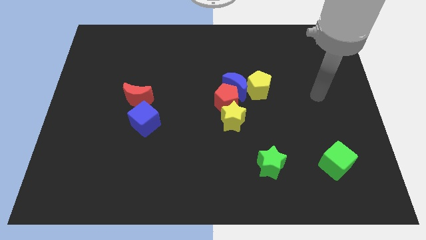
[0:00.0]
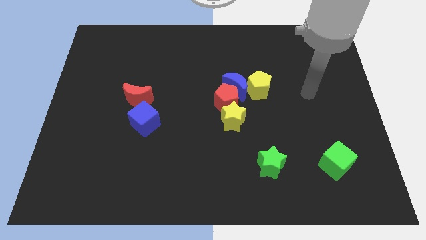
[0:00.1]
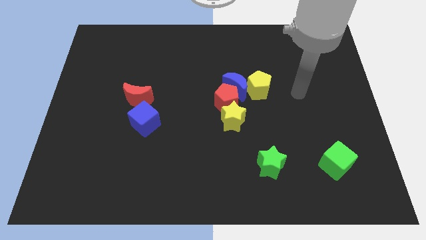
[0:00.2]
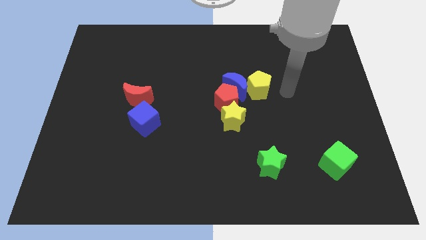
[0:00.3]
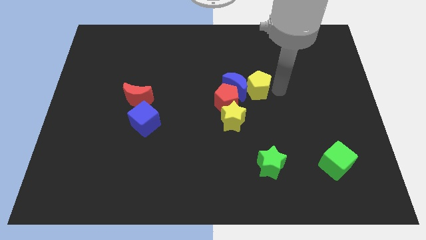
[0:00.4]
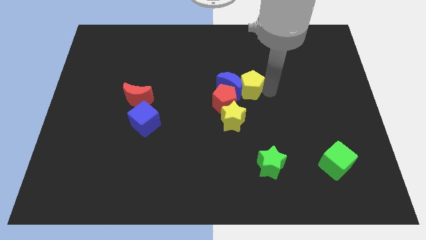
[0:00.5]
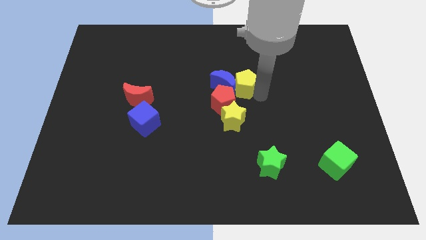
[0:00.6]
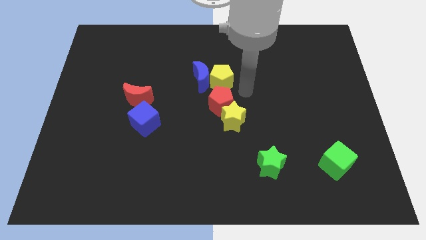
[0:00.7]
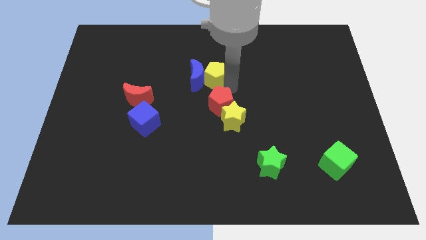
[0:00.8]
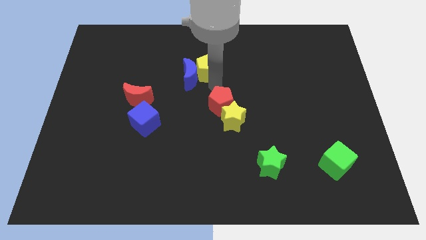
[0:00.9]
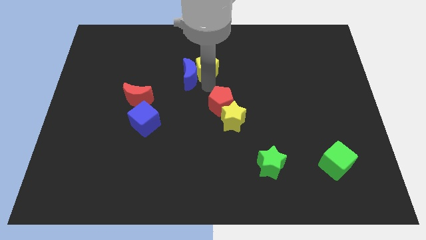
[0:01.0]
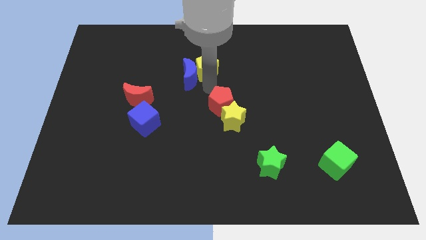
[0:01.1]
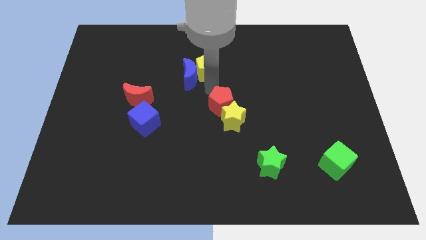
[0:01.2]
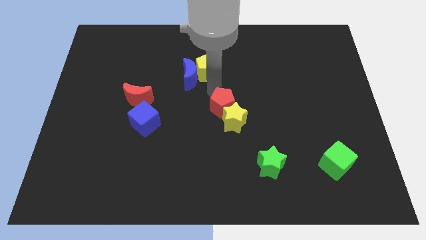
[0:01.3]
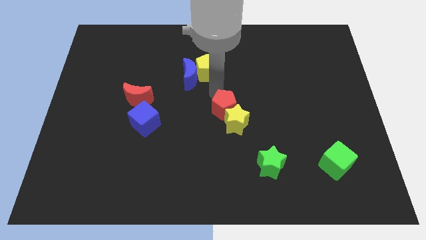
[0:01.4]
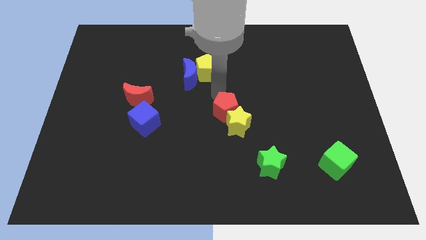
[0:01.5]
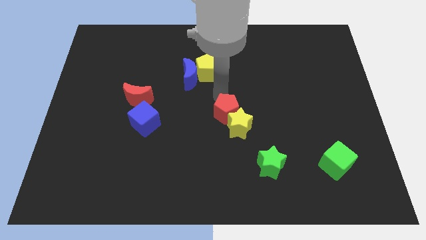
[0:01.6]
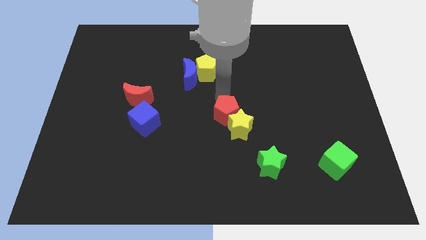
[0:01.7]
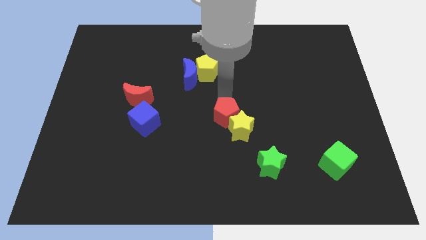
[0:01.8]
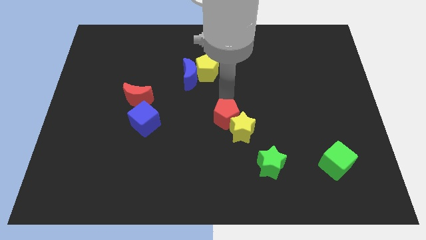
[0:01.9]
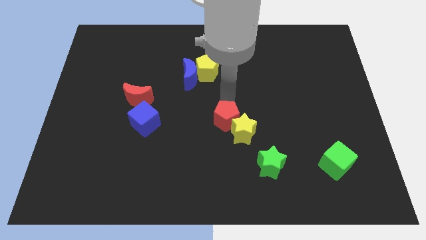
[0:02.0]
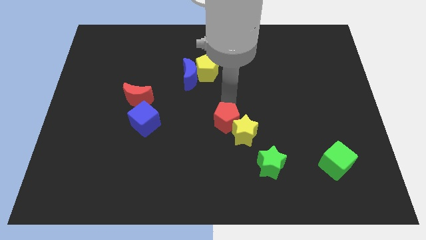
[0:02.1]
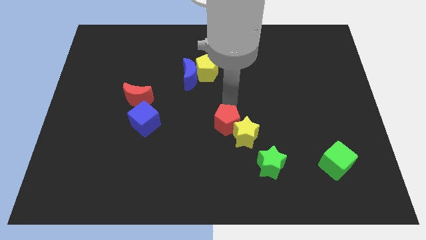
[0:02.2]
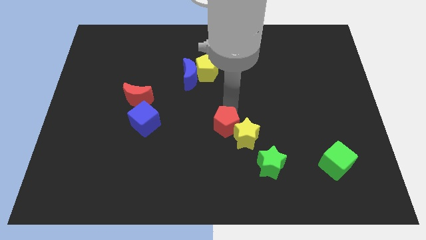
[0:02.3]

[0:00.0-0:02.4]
move the red pentagon away from the blue moon, yellow star, and yellow pentagon

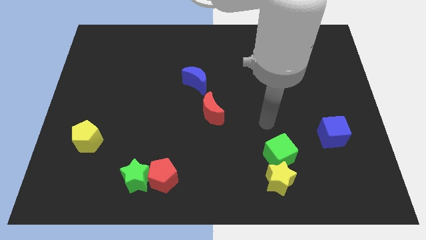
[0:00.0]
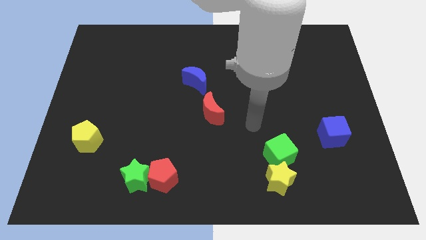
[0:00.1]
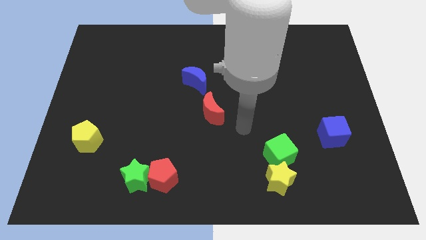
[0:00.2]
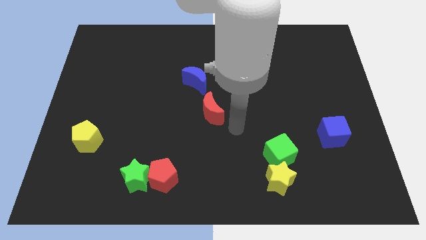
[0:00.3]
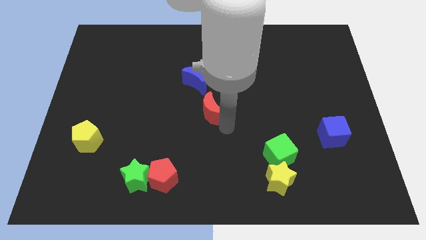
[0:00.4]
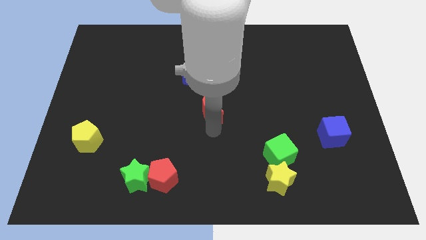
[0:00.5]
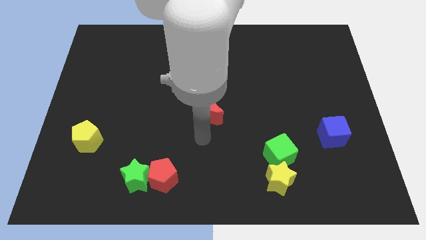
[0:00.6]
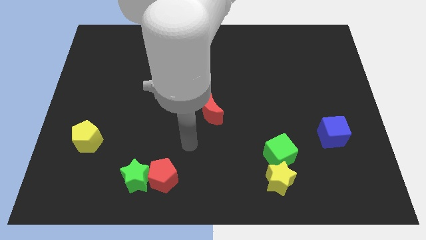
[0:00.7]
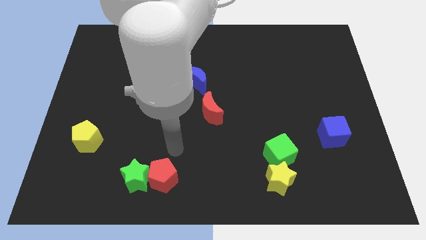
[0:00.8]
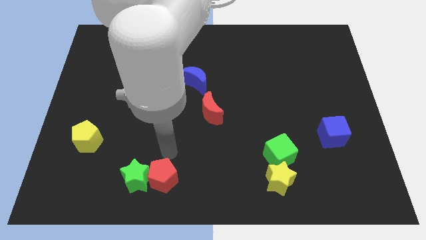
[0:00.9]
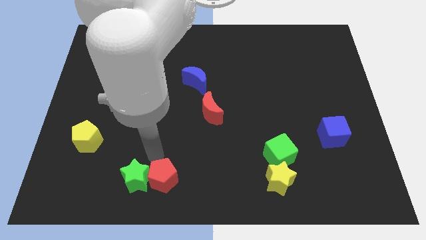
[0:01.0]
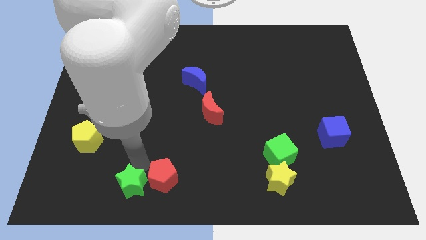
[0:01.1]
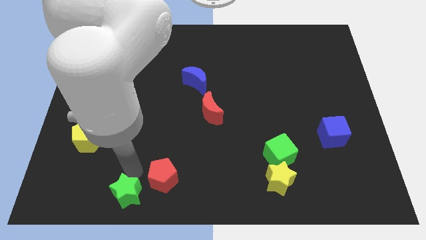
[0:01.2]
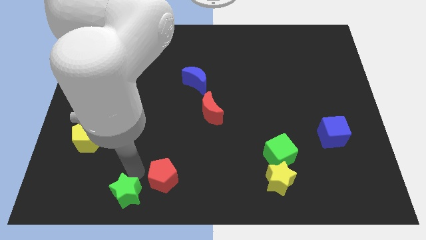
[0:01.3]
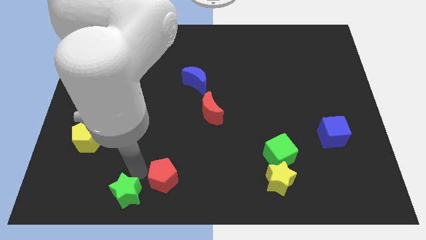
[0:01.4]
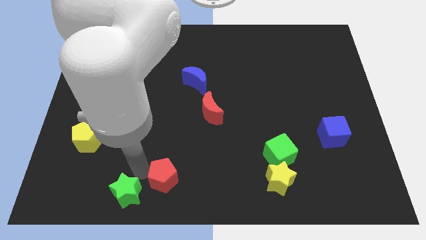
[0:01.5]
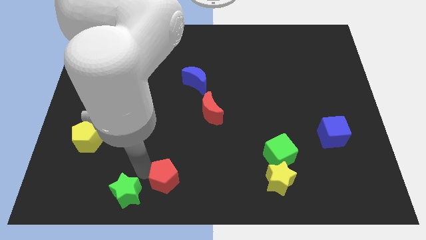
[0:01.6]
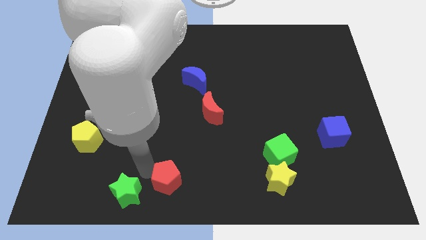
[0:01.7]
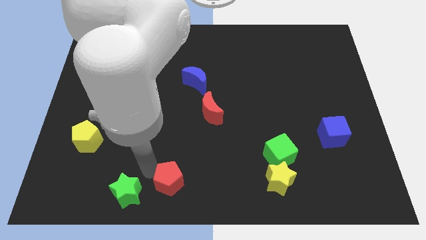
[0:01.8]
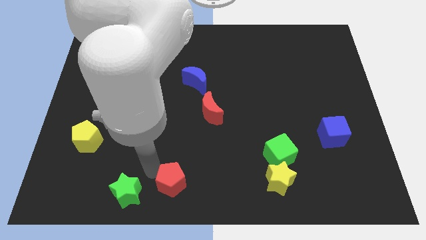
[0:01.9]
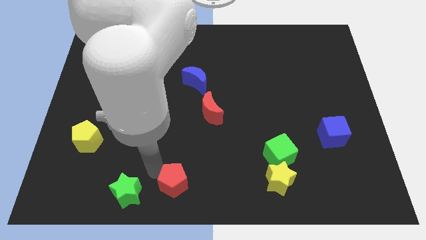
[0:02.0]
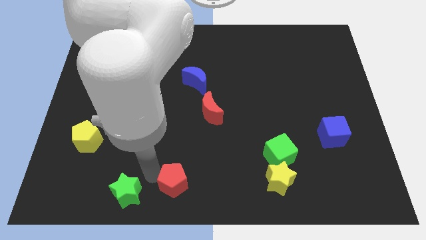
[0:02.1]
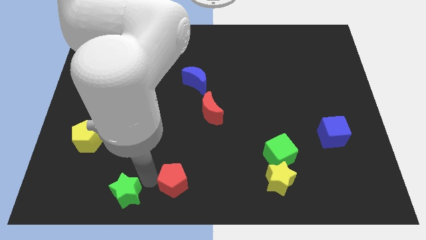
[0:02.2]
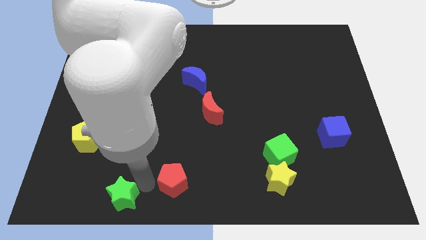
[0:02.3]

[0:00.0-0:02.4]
pull the red pentagon apart from the green star

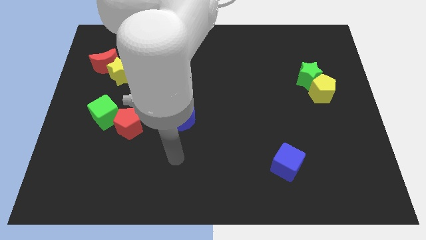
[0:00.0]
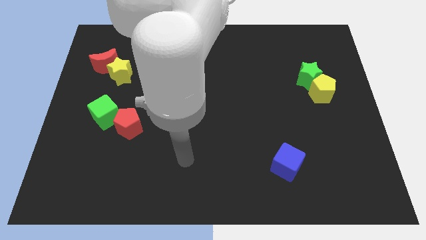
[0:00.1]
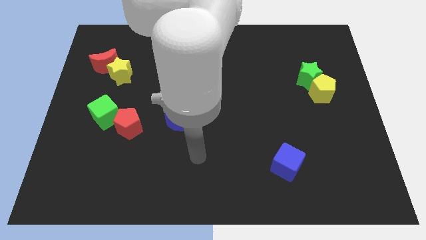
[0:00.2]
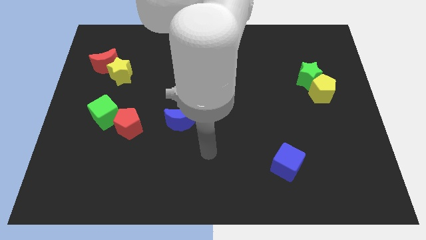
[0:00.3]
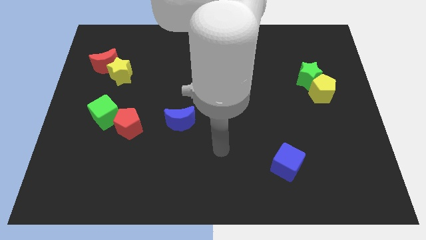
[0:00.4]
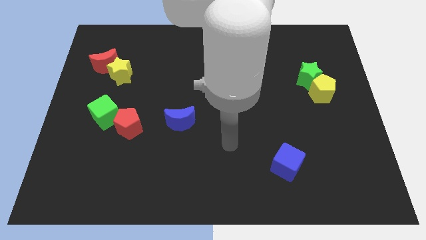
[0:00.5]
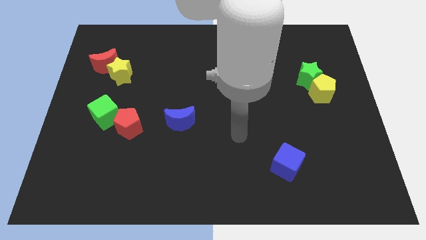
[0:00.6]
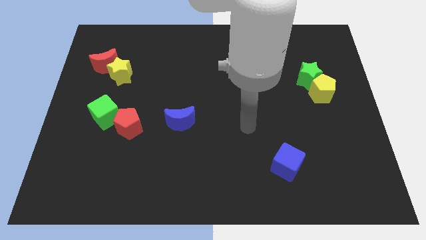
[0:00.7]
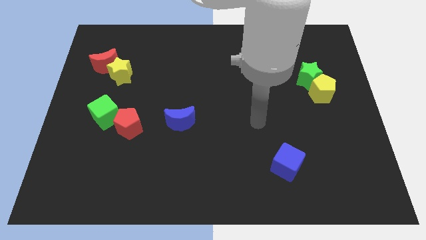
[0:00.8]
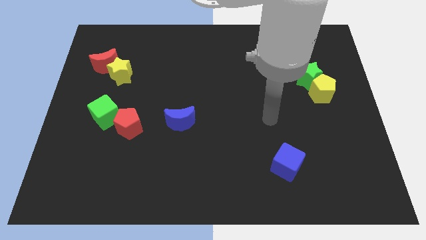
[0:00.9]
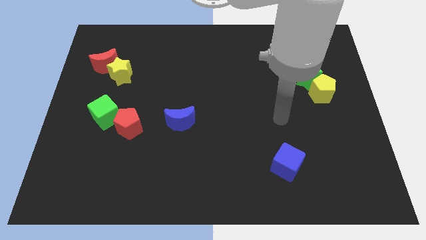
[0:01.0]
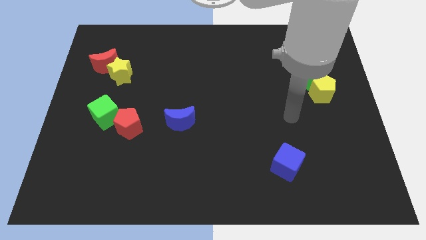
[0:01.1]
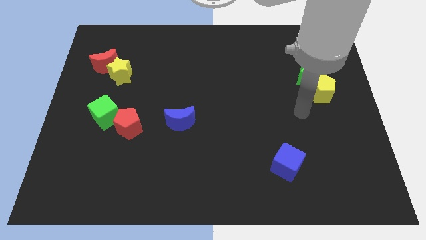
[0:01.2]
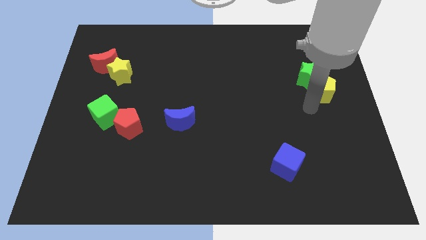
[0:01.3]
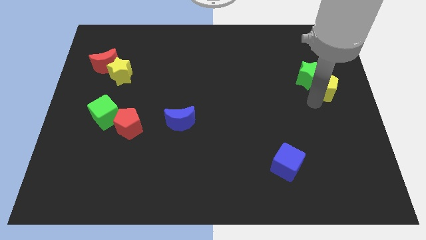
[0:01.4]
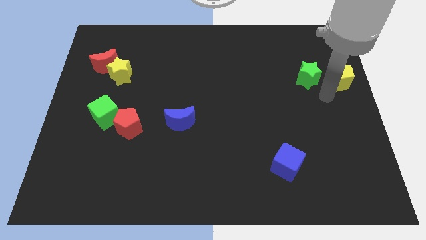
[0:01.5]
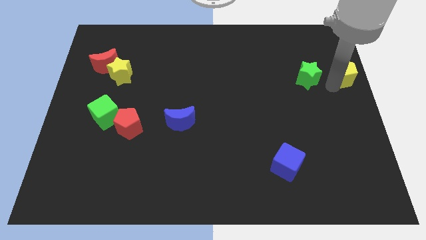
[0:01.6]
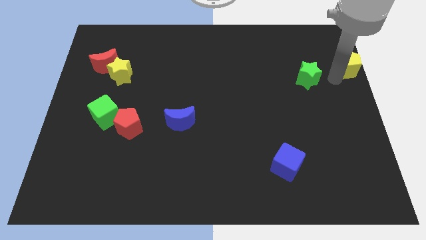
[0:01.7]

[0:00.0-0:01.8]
move the green star away from the yellow pentagon

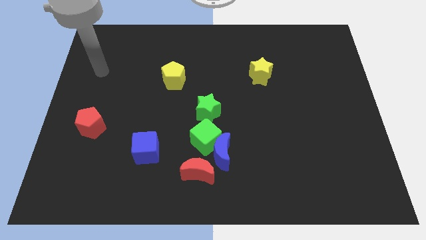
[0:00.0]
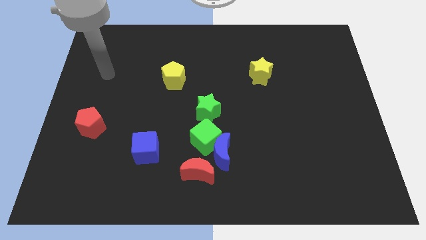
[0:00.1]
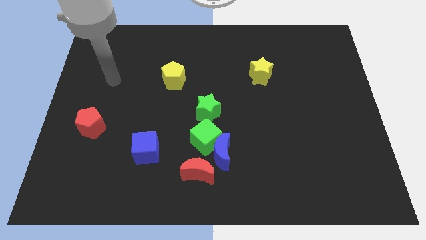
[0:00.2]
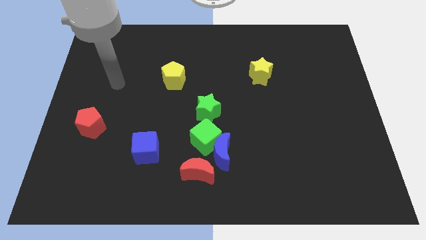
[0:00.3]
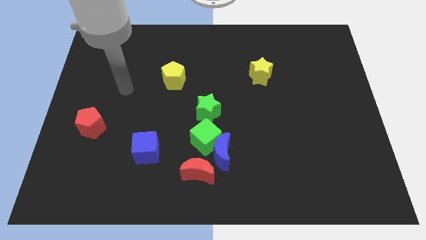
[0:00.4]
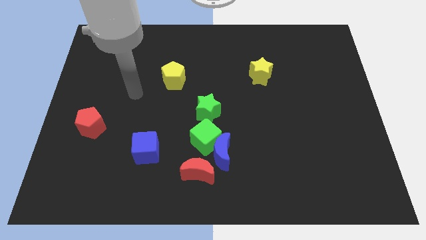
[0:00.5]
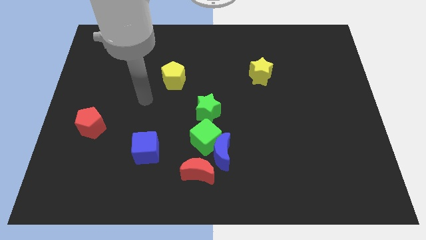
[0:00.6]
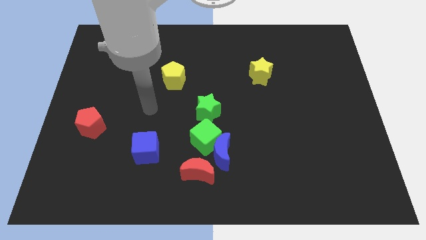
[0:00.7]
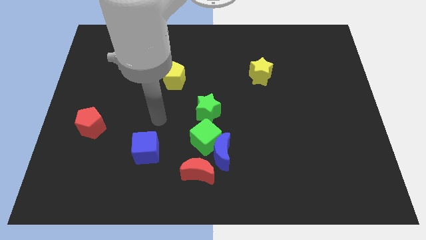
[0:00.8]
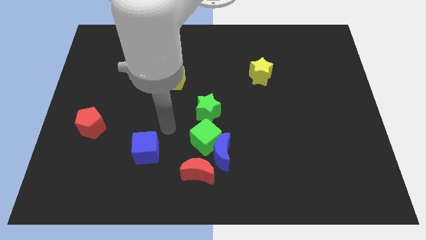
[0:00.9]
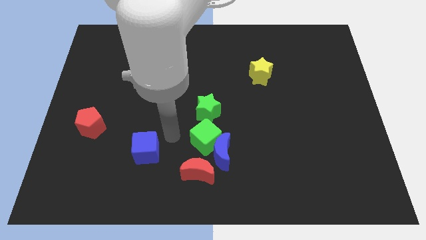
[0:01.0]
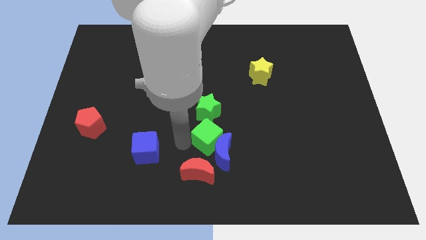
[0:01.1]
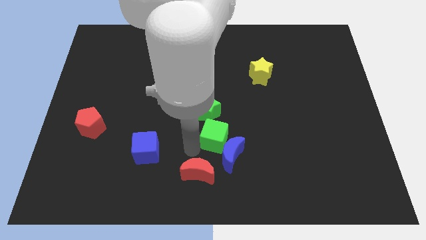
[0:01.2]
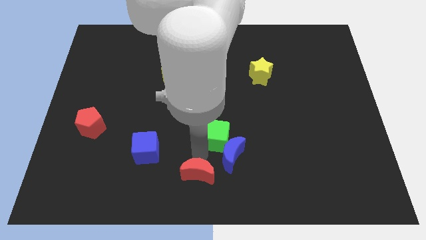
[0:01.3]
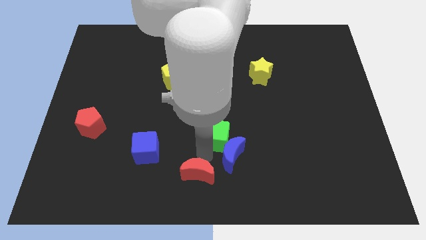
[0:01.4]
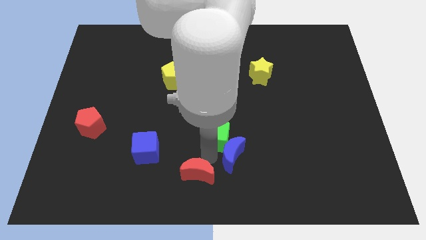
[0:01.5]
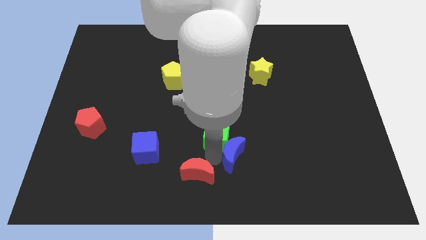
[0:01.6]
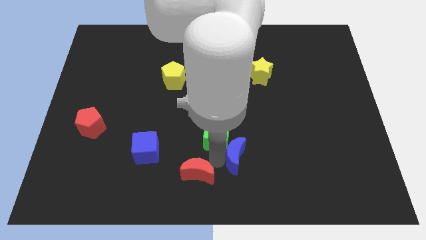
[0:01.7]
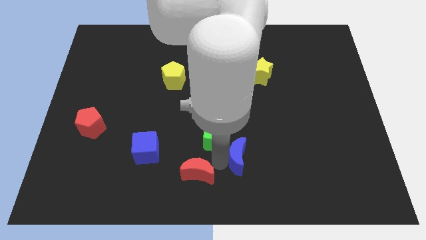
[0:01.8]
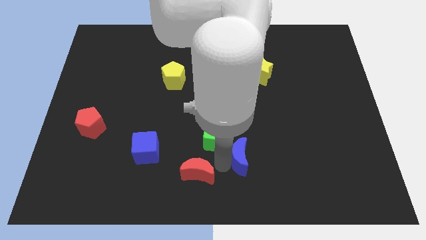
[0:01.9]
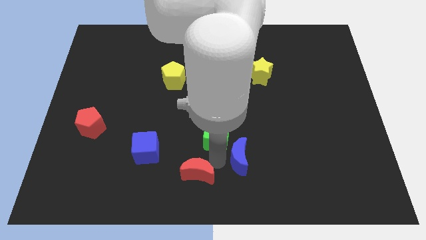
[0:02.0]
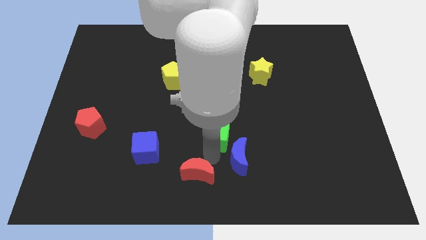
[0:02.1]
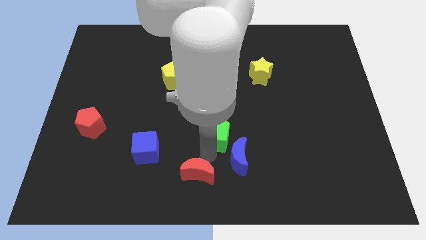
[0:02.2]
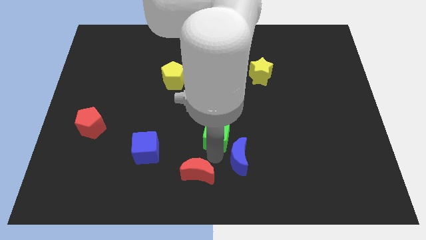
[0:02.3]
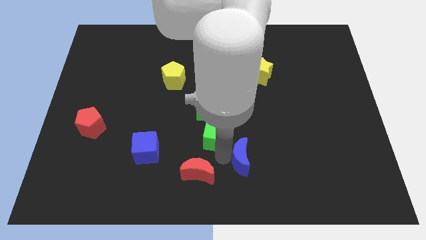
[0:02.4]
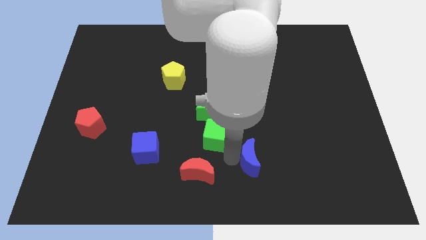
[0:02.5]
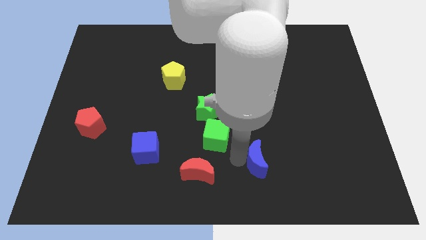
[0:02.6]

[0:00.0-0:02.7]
separate the blue moon from the green cube and red moon
